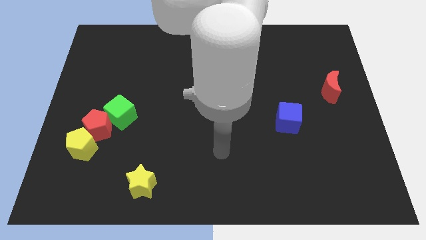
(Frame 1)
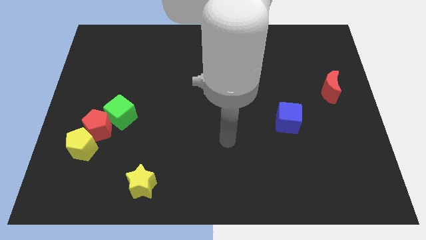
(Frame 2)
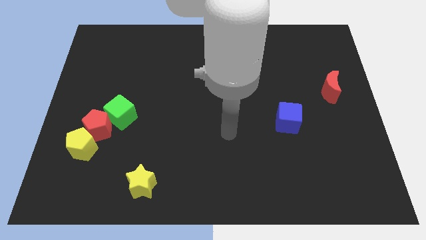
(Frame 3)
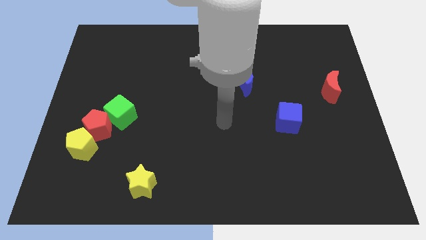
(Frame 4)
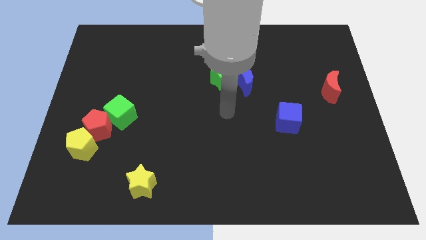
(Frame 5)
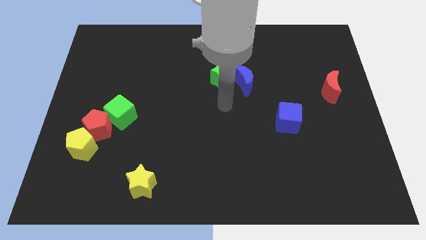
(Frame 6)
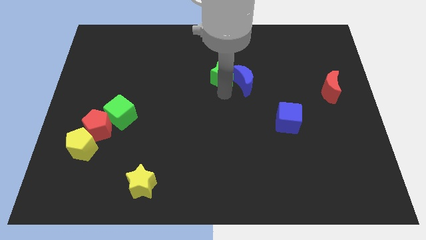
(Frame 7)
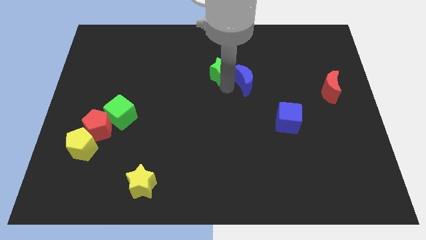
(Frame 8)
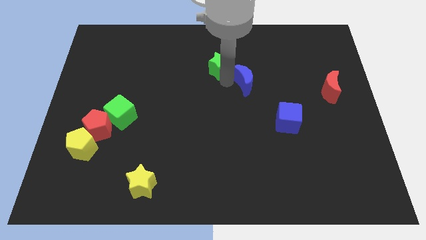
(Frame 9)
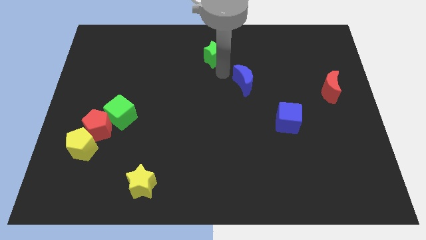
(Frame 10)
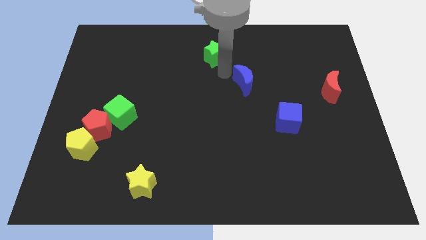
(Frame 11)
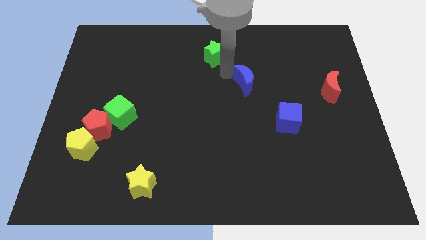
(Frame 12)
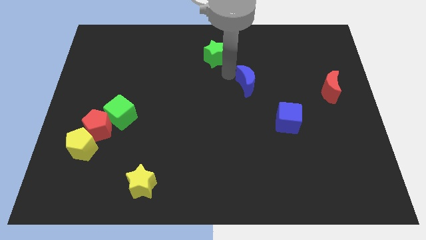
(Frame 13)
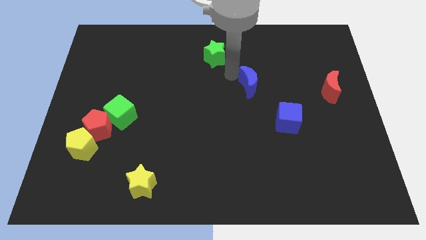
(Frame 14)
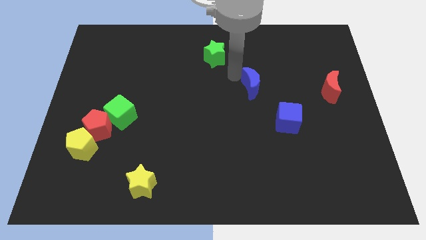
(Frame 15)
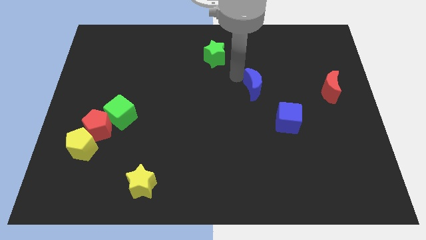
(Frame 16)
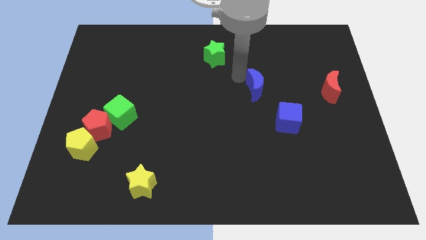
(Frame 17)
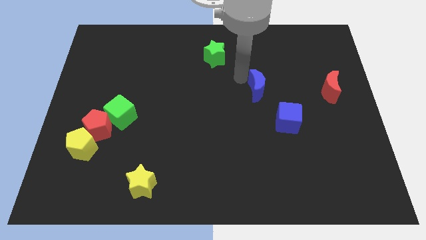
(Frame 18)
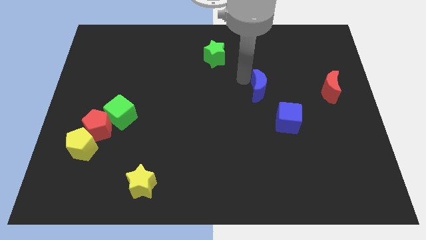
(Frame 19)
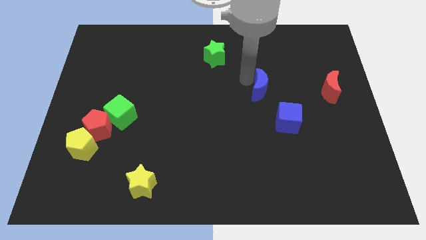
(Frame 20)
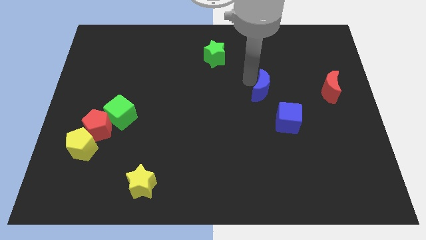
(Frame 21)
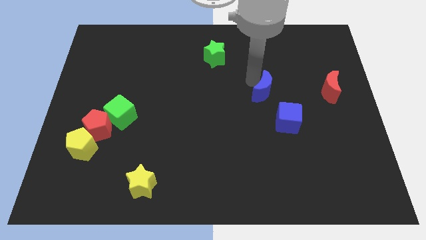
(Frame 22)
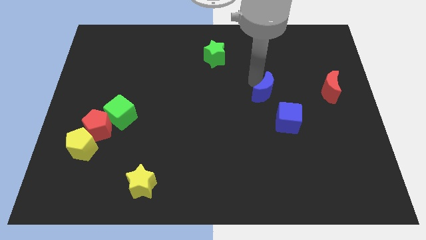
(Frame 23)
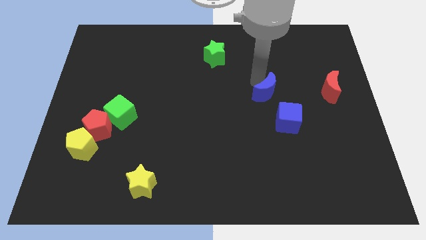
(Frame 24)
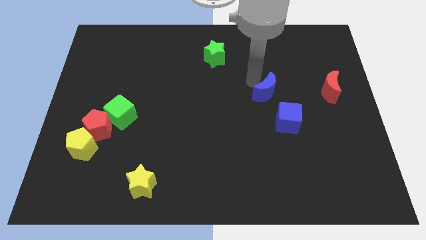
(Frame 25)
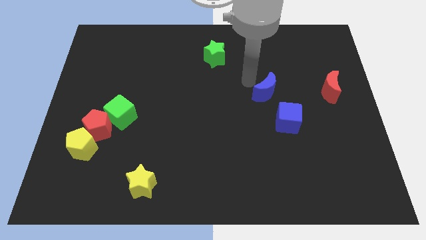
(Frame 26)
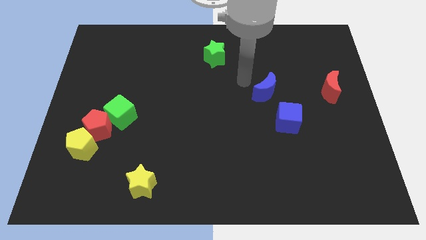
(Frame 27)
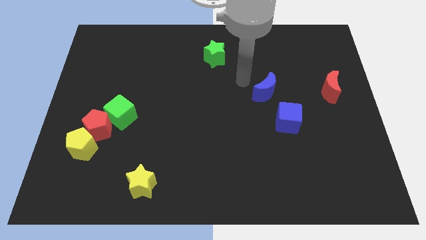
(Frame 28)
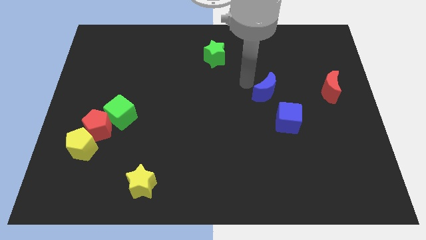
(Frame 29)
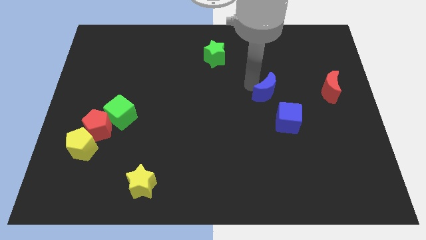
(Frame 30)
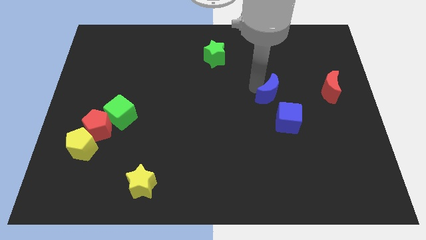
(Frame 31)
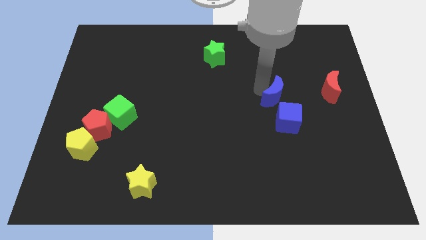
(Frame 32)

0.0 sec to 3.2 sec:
push the blue moon downwards and to the right diagonally somewhat

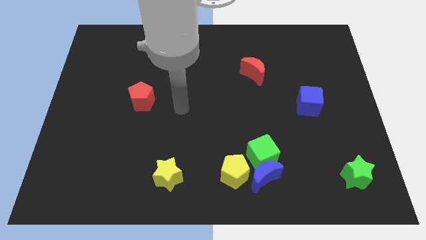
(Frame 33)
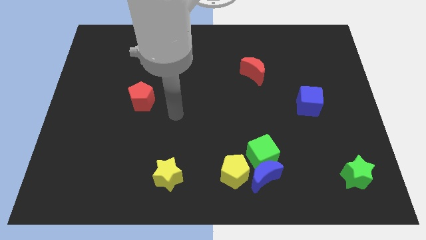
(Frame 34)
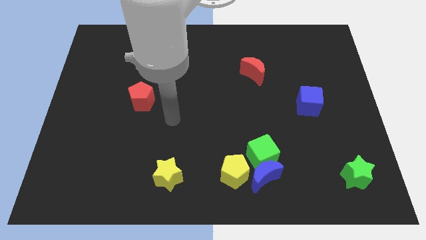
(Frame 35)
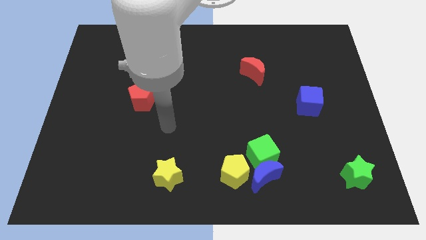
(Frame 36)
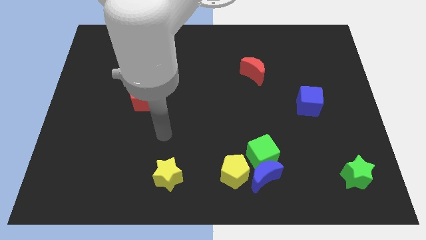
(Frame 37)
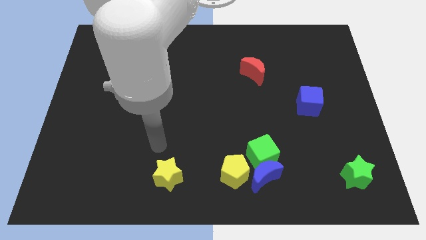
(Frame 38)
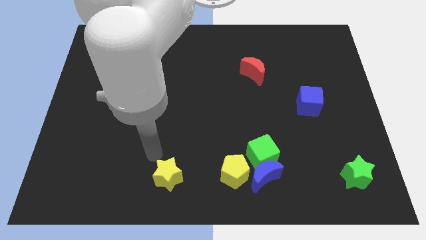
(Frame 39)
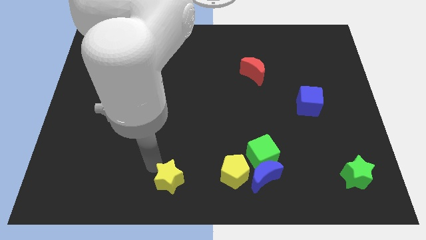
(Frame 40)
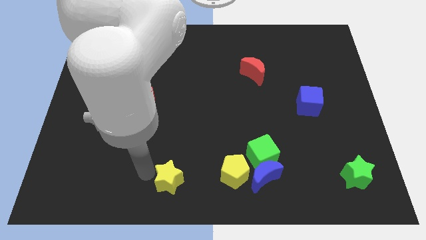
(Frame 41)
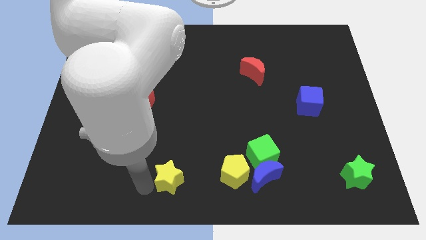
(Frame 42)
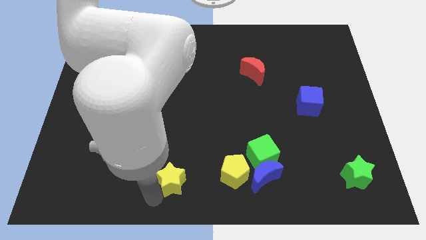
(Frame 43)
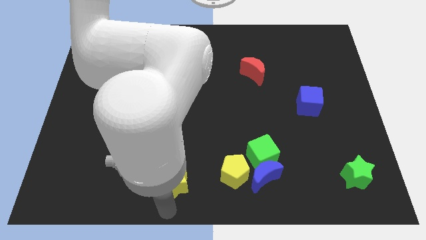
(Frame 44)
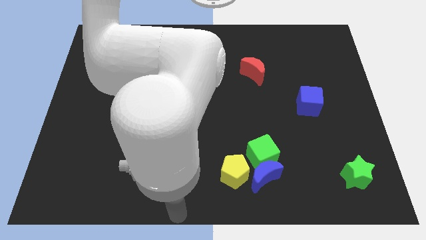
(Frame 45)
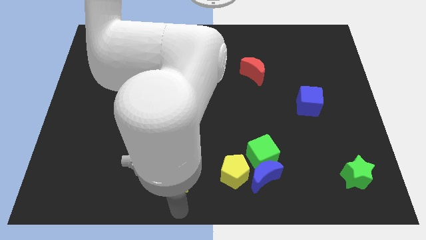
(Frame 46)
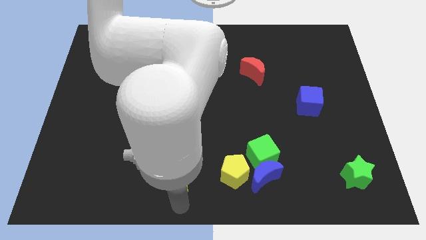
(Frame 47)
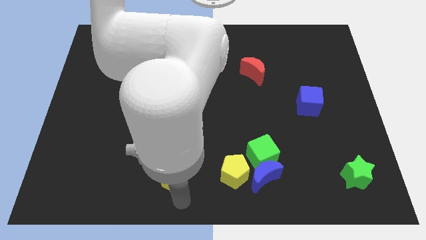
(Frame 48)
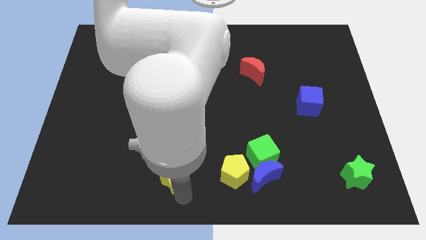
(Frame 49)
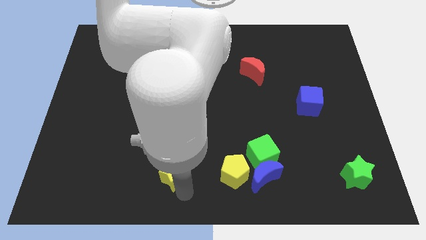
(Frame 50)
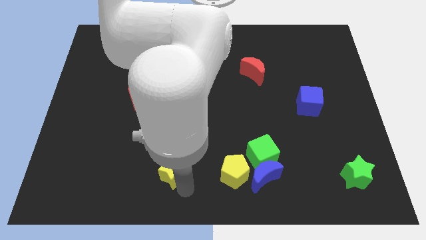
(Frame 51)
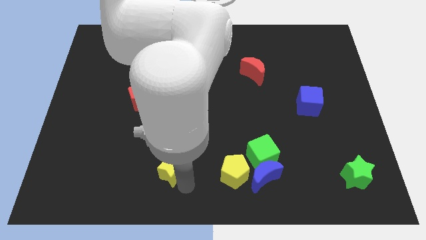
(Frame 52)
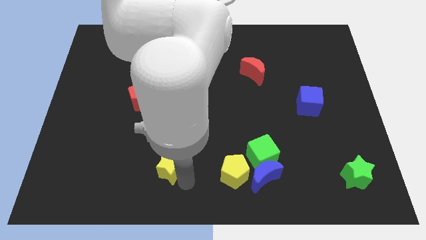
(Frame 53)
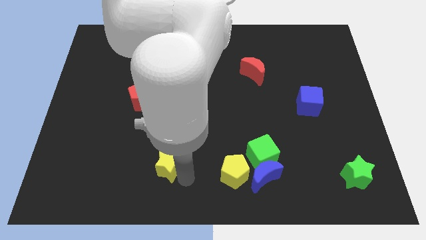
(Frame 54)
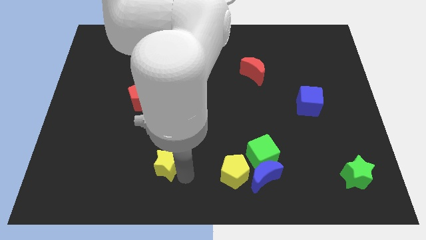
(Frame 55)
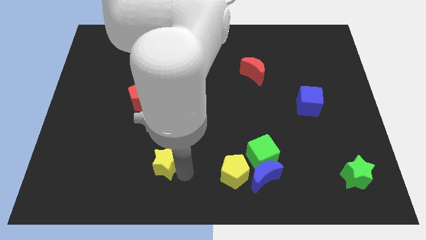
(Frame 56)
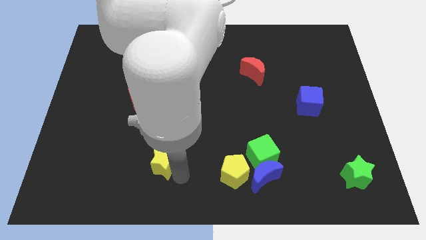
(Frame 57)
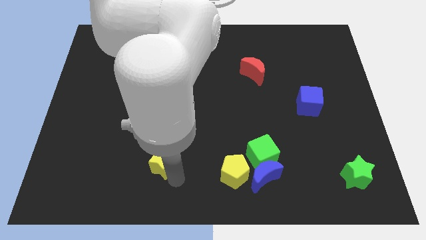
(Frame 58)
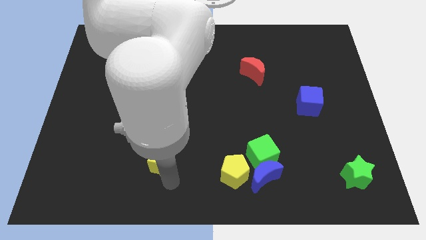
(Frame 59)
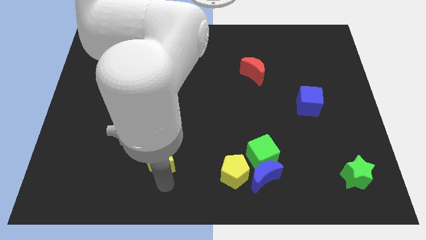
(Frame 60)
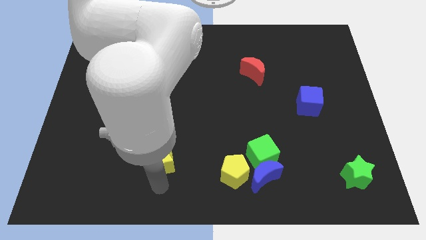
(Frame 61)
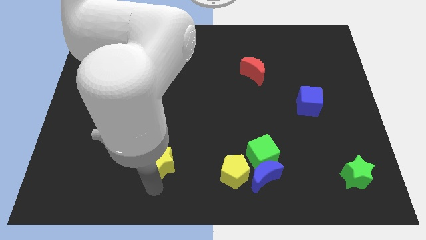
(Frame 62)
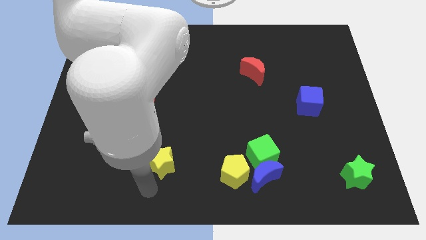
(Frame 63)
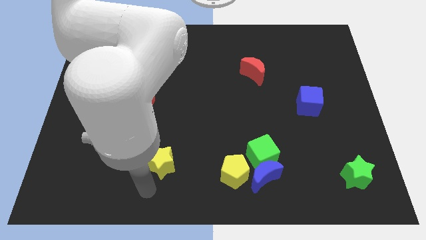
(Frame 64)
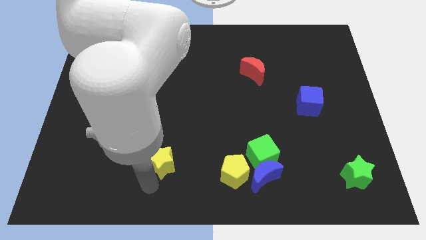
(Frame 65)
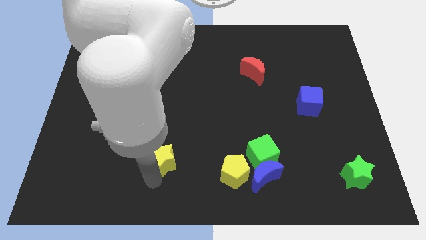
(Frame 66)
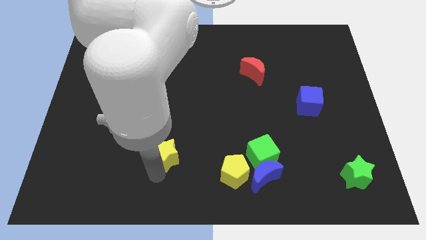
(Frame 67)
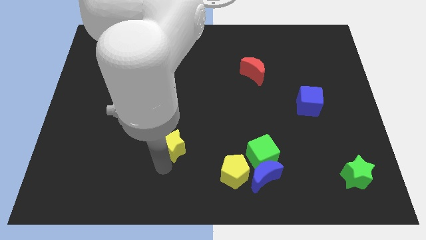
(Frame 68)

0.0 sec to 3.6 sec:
slide the yellow star a little bit upwards

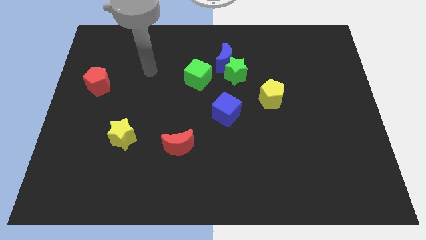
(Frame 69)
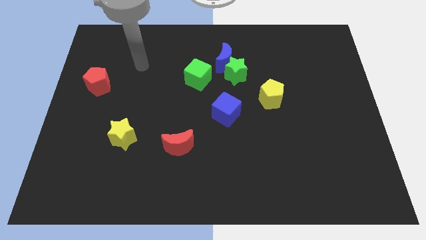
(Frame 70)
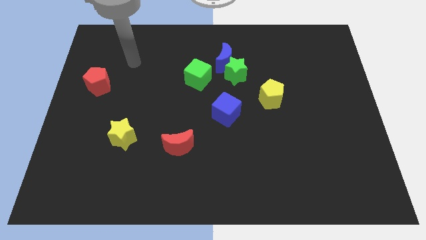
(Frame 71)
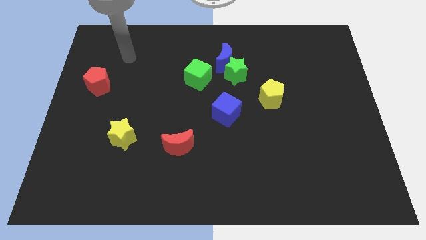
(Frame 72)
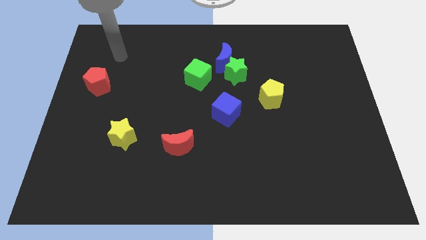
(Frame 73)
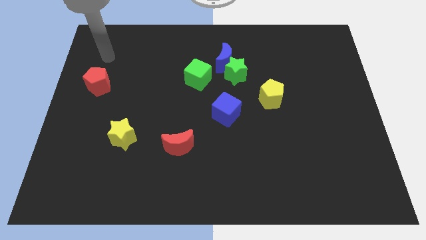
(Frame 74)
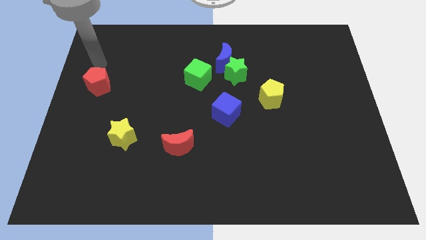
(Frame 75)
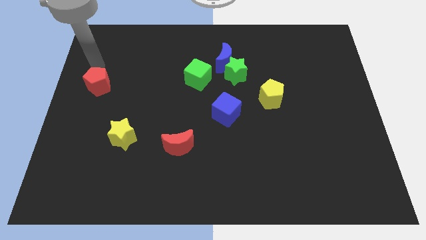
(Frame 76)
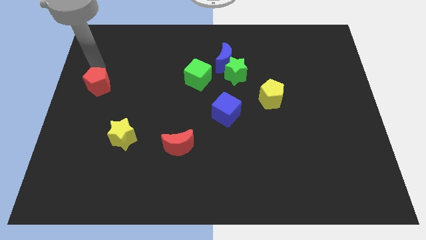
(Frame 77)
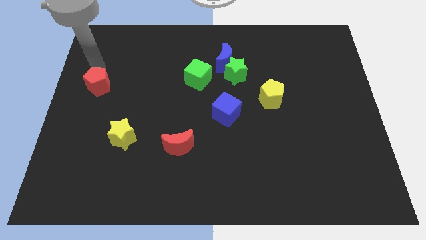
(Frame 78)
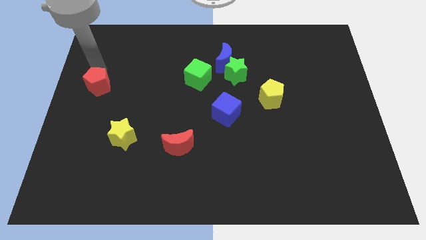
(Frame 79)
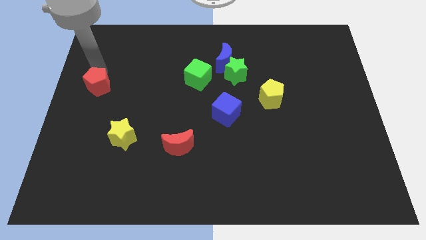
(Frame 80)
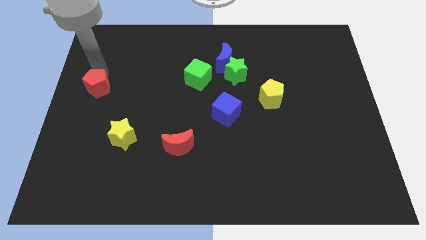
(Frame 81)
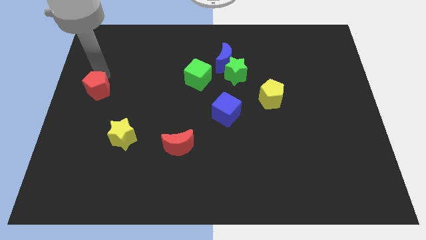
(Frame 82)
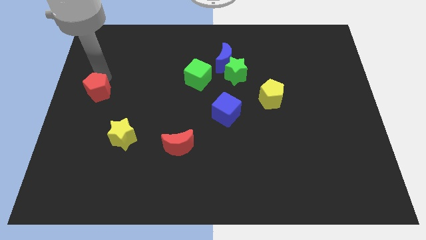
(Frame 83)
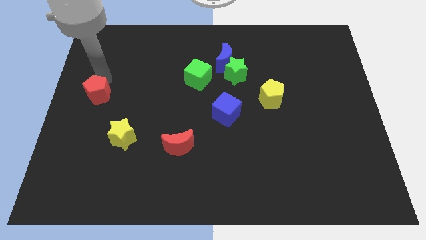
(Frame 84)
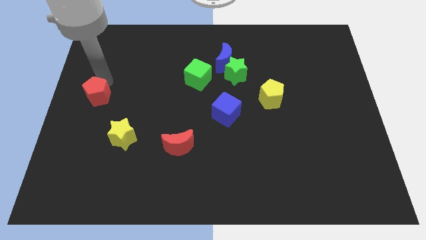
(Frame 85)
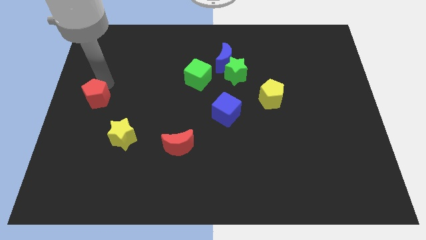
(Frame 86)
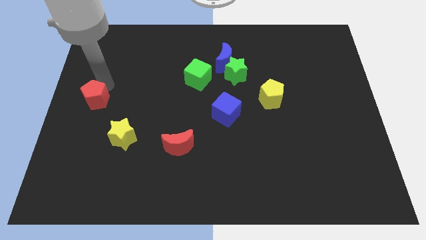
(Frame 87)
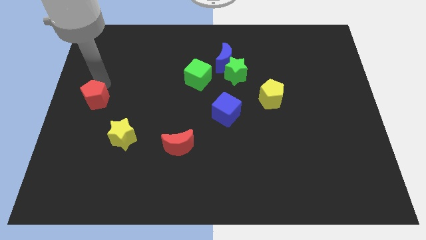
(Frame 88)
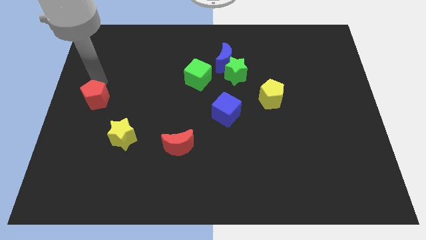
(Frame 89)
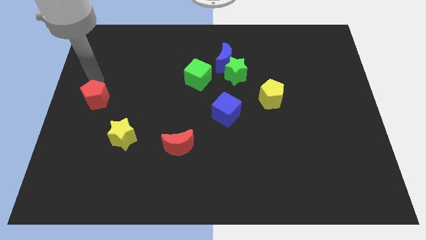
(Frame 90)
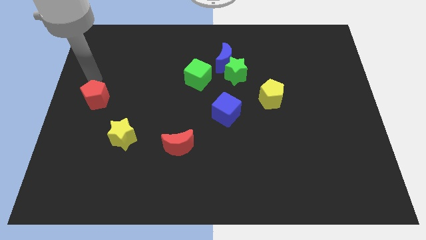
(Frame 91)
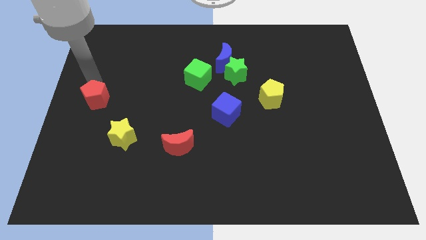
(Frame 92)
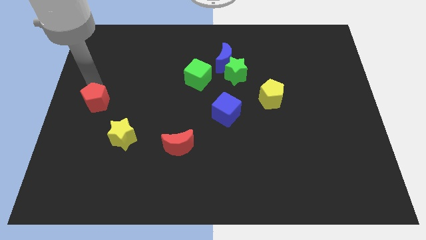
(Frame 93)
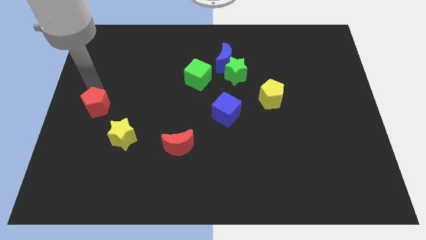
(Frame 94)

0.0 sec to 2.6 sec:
move the red pentagon a bit down
